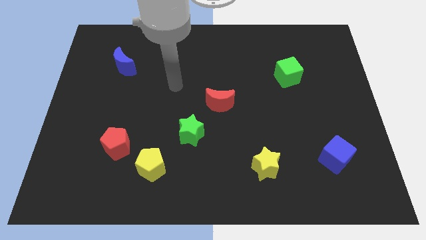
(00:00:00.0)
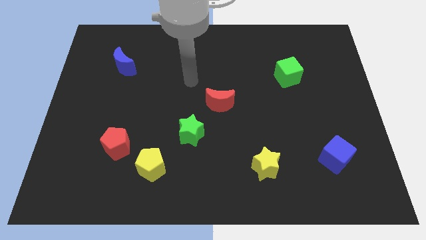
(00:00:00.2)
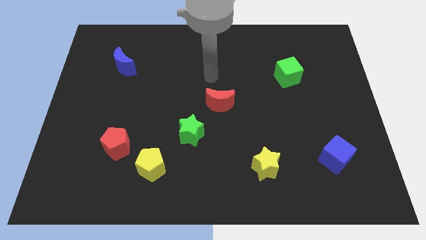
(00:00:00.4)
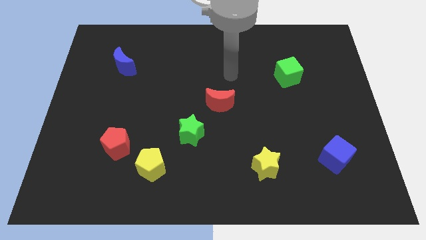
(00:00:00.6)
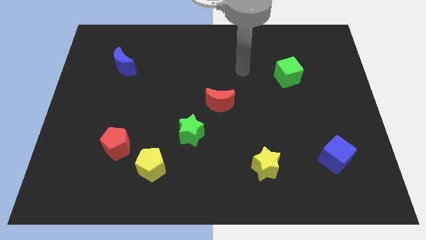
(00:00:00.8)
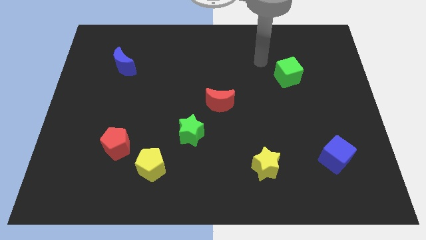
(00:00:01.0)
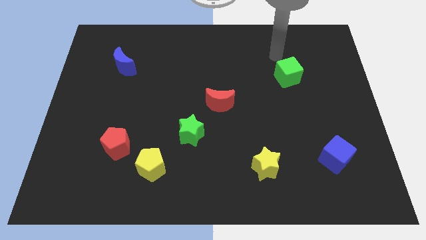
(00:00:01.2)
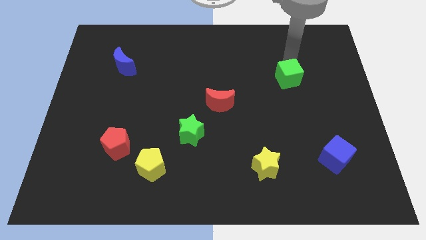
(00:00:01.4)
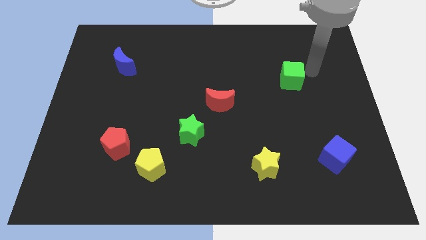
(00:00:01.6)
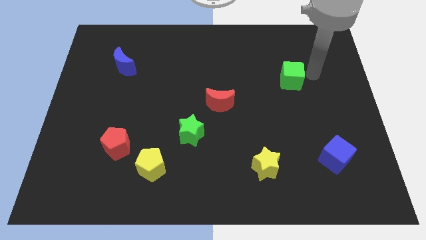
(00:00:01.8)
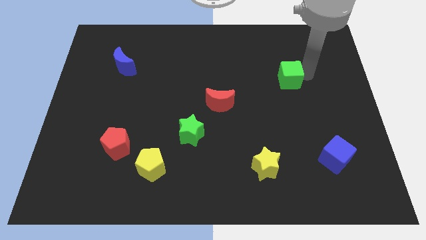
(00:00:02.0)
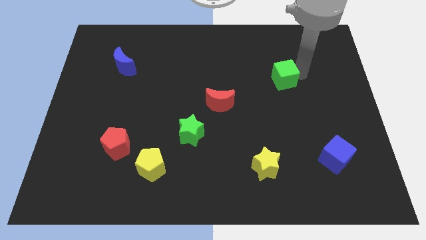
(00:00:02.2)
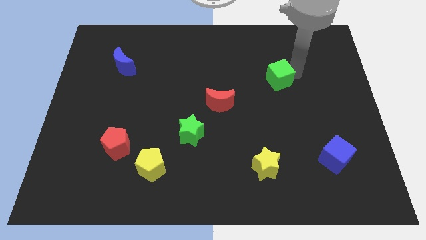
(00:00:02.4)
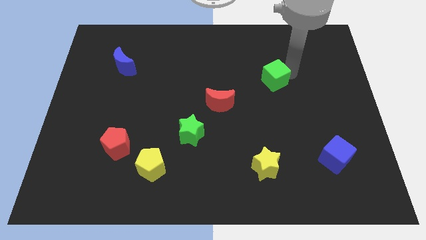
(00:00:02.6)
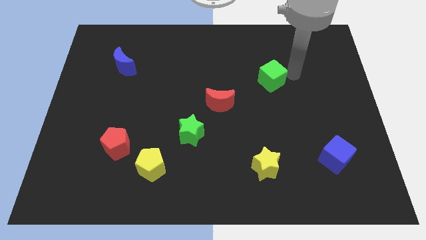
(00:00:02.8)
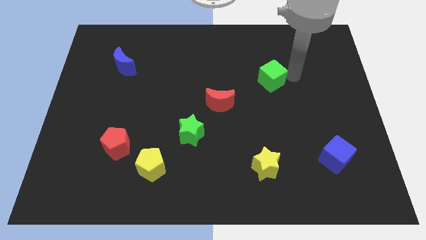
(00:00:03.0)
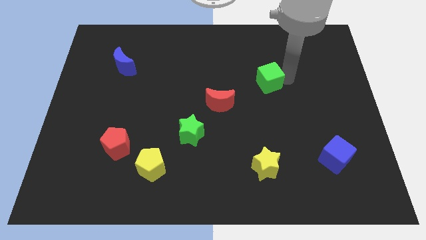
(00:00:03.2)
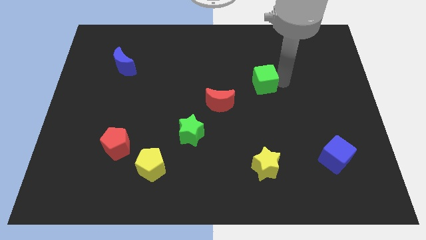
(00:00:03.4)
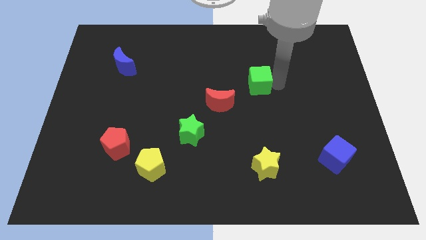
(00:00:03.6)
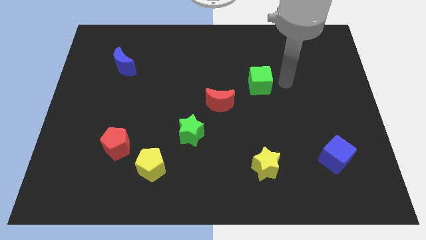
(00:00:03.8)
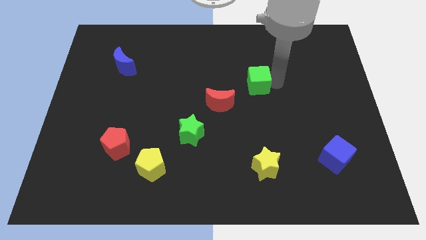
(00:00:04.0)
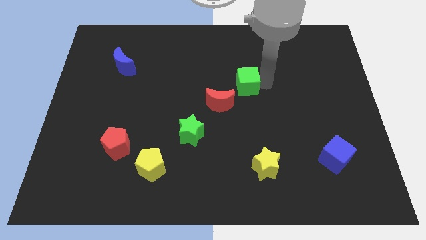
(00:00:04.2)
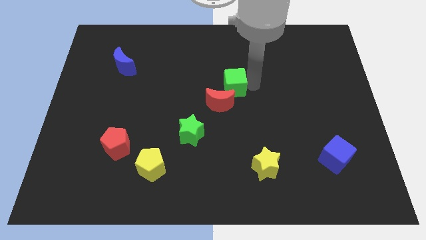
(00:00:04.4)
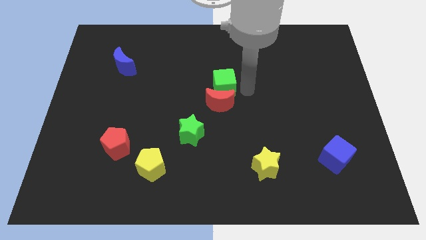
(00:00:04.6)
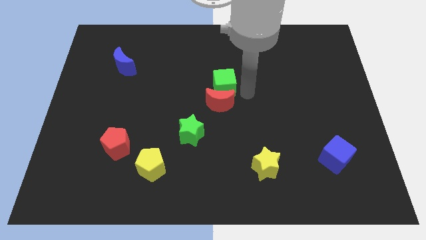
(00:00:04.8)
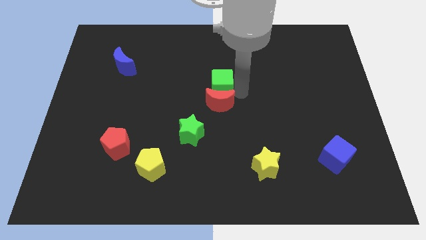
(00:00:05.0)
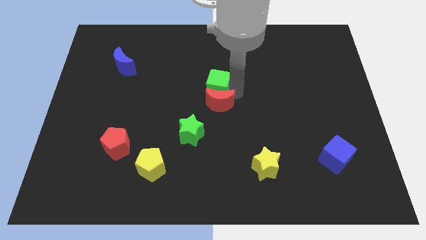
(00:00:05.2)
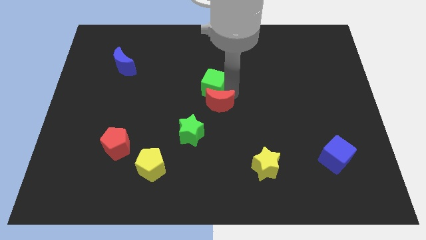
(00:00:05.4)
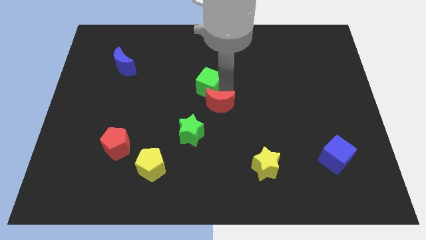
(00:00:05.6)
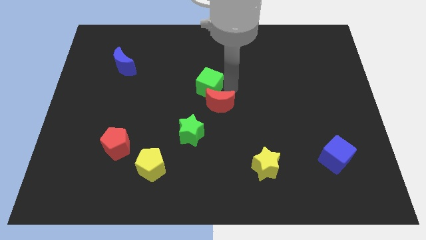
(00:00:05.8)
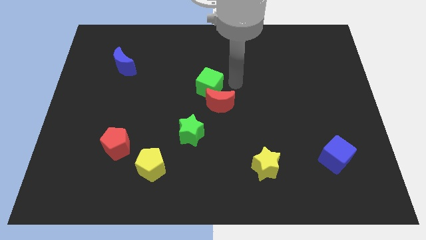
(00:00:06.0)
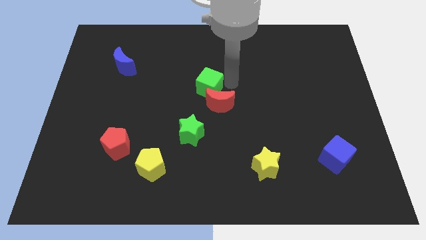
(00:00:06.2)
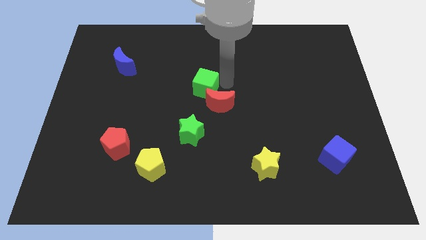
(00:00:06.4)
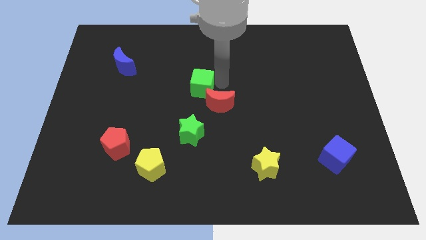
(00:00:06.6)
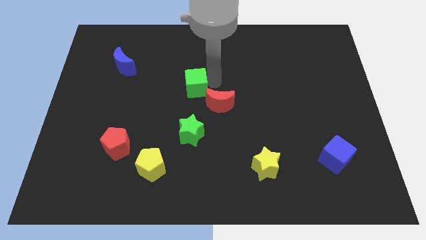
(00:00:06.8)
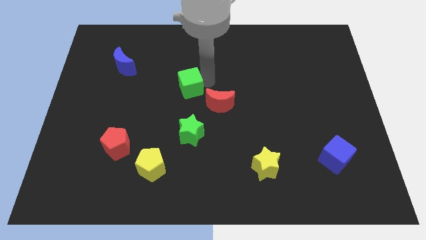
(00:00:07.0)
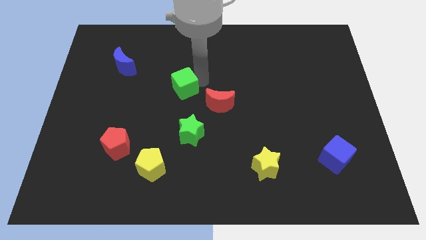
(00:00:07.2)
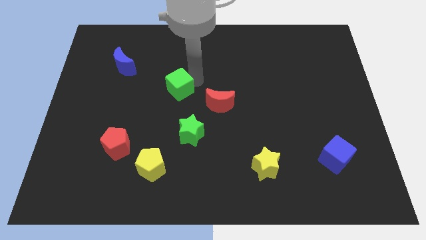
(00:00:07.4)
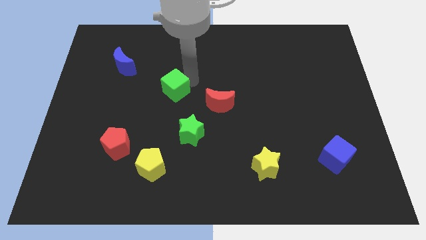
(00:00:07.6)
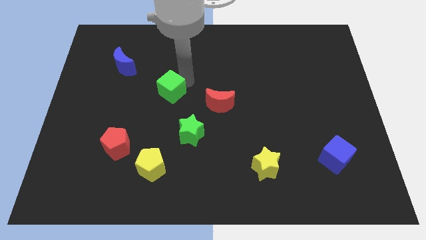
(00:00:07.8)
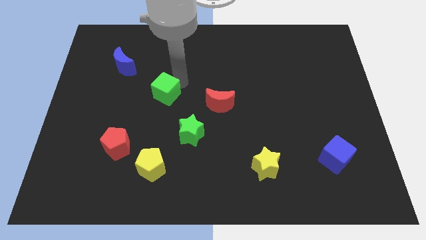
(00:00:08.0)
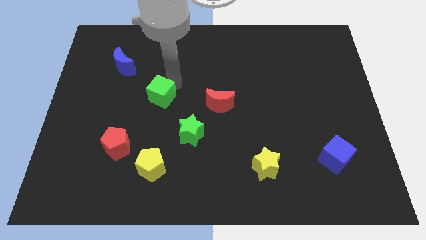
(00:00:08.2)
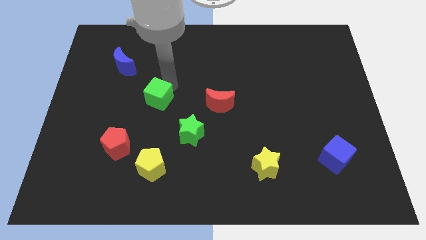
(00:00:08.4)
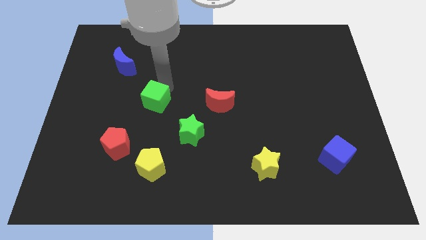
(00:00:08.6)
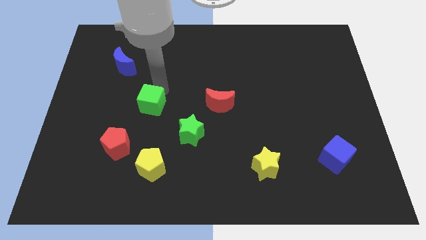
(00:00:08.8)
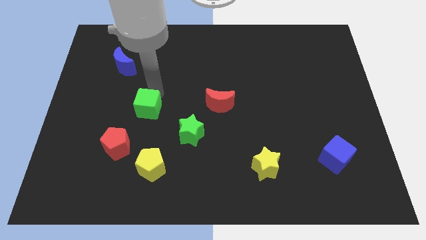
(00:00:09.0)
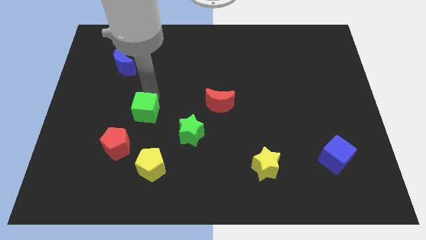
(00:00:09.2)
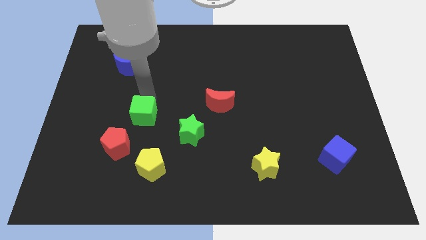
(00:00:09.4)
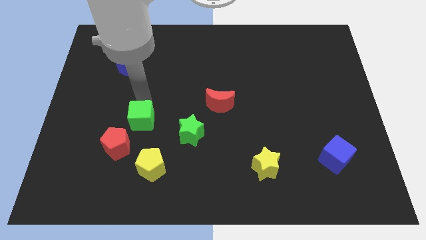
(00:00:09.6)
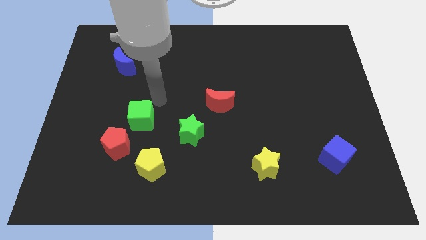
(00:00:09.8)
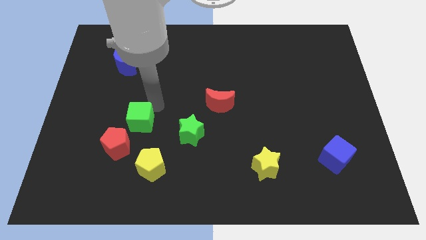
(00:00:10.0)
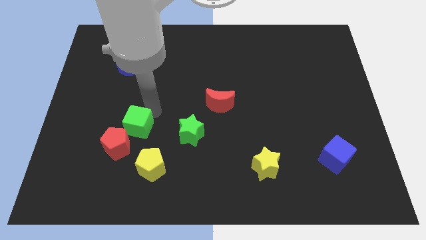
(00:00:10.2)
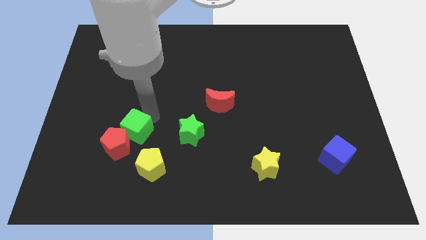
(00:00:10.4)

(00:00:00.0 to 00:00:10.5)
put the green cube next to the red pentagon
